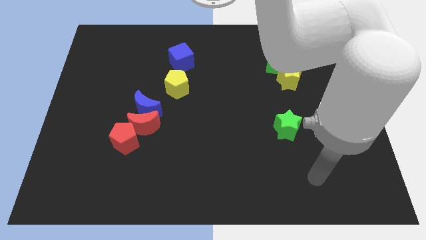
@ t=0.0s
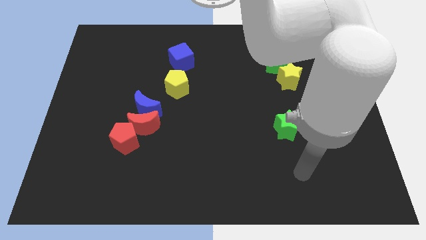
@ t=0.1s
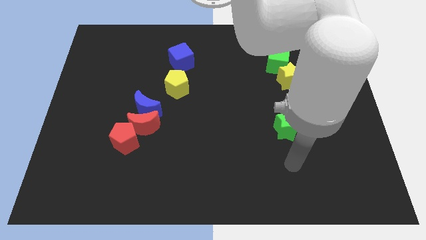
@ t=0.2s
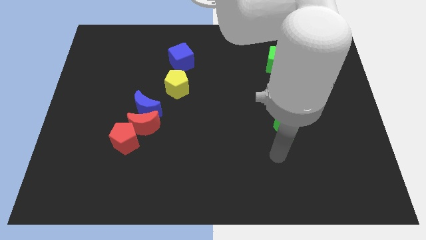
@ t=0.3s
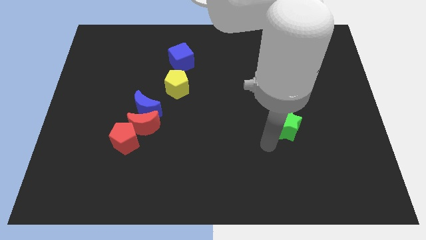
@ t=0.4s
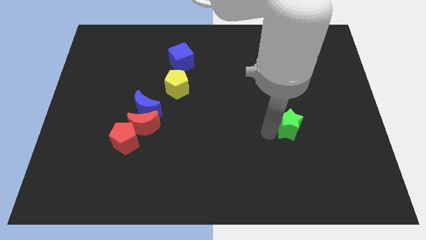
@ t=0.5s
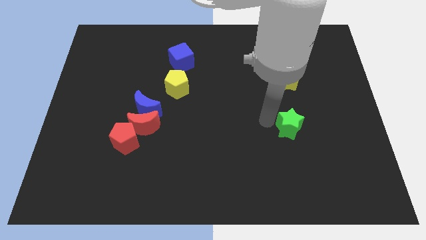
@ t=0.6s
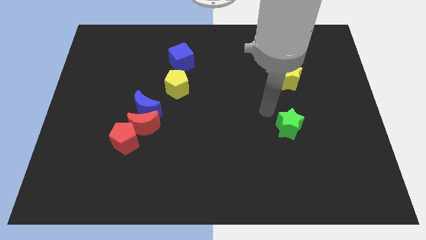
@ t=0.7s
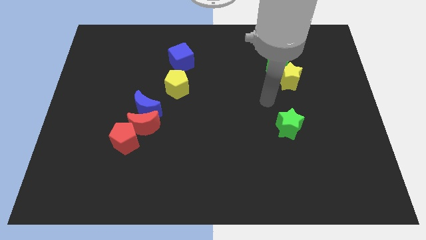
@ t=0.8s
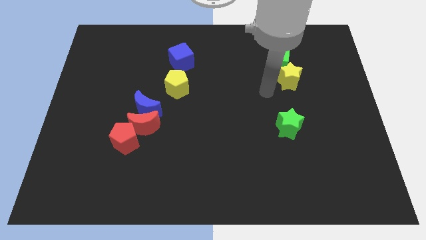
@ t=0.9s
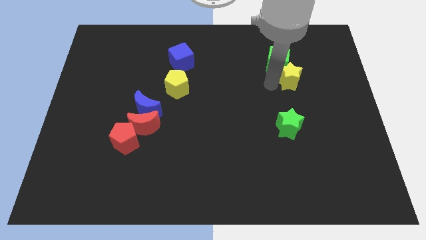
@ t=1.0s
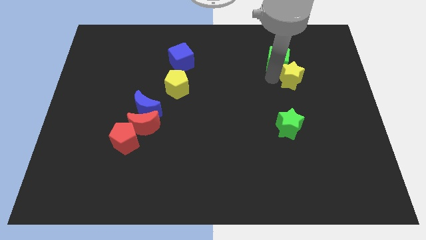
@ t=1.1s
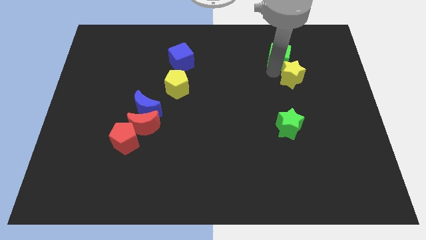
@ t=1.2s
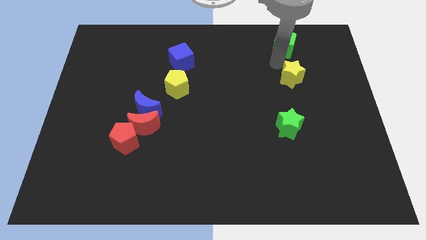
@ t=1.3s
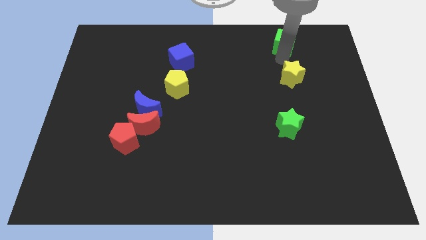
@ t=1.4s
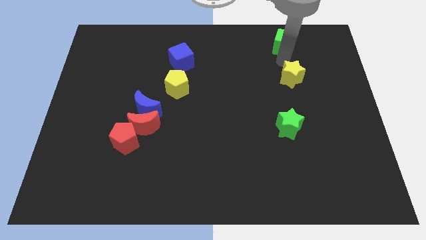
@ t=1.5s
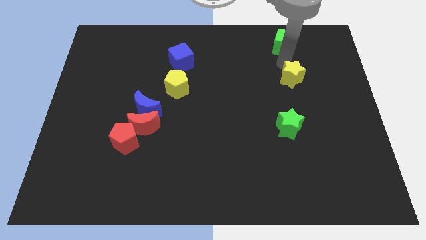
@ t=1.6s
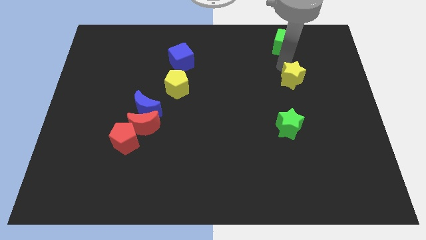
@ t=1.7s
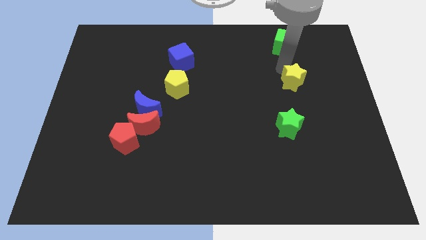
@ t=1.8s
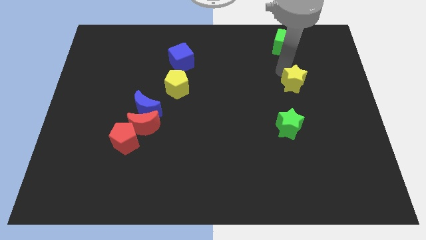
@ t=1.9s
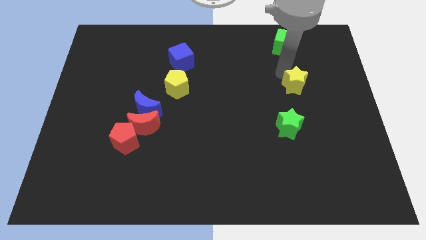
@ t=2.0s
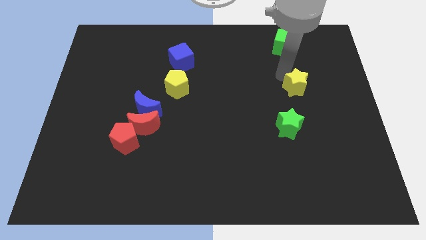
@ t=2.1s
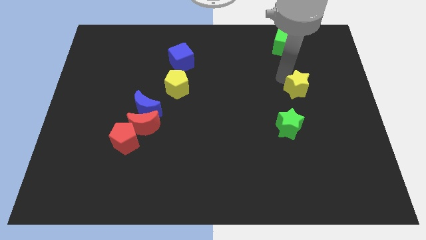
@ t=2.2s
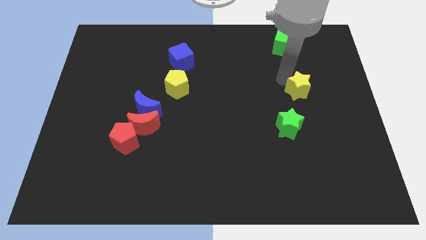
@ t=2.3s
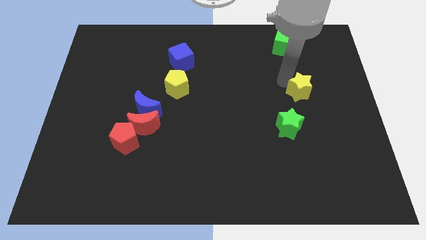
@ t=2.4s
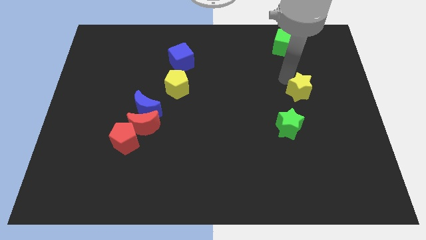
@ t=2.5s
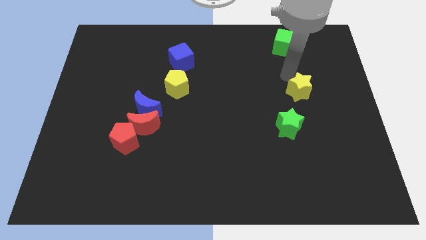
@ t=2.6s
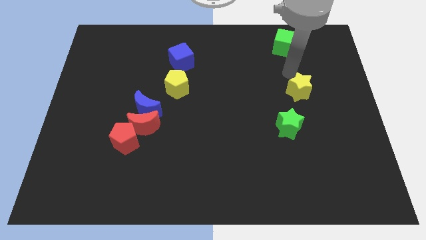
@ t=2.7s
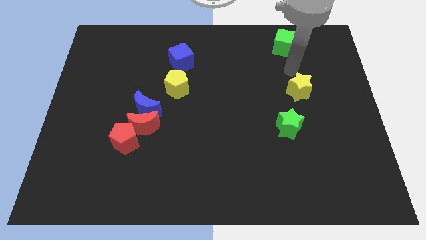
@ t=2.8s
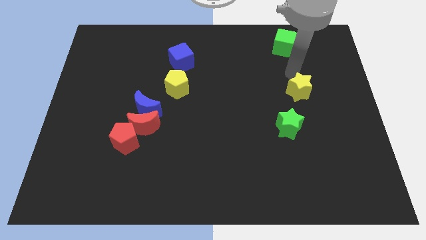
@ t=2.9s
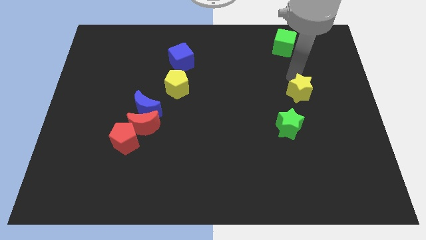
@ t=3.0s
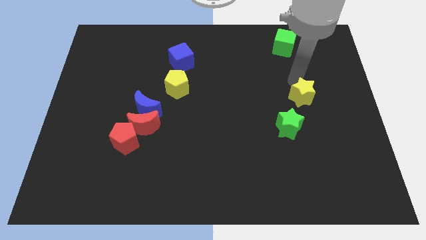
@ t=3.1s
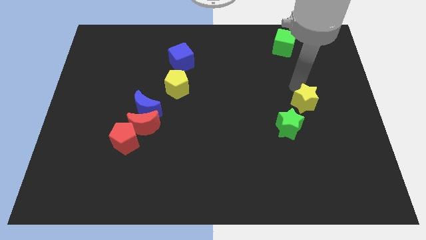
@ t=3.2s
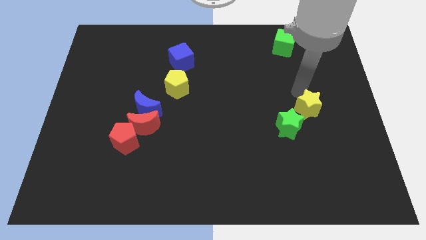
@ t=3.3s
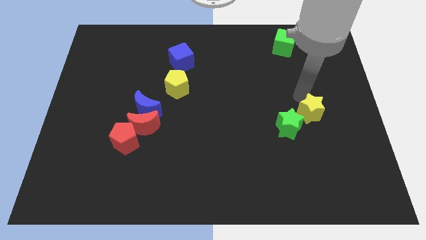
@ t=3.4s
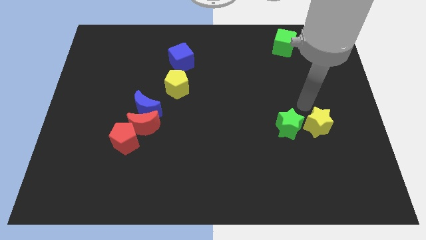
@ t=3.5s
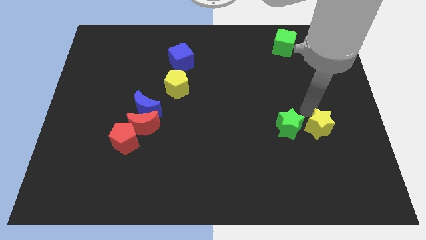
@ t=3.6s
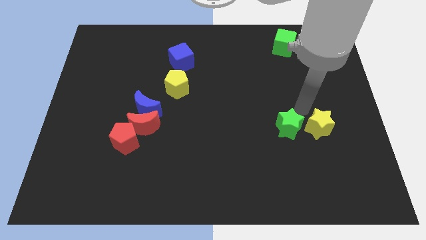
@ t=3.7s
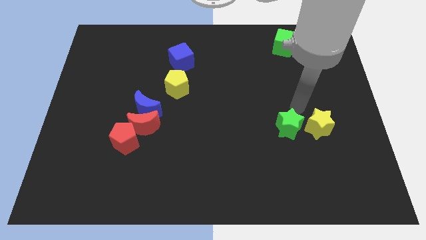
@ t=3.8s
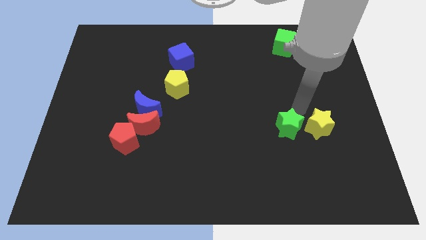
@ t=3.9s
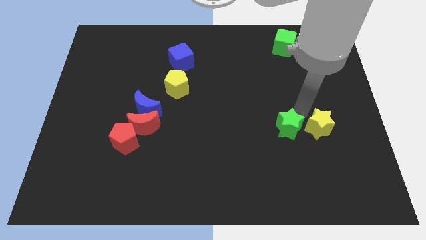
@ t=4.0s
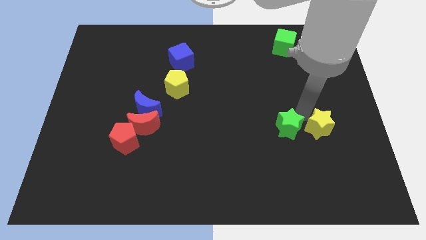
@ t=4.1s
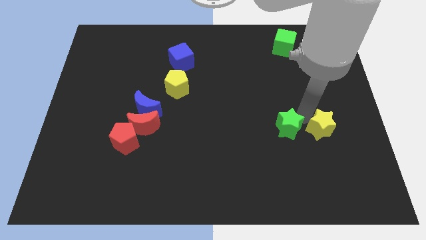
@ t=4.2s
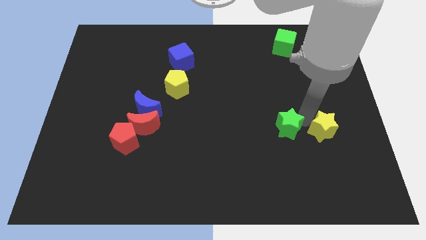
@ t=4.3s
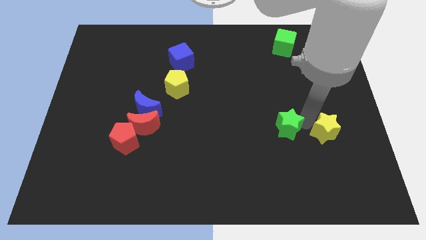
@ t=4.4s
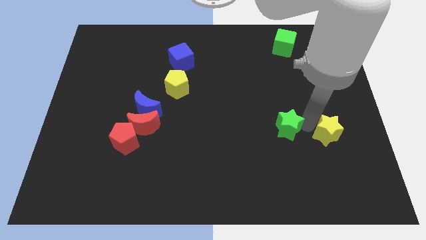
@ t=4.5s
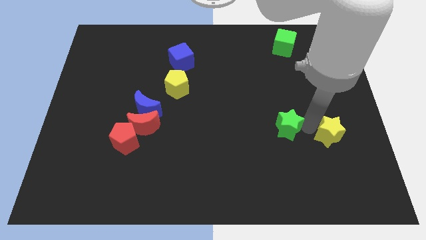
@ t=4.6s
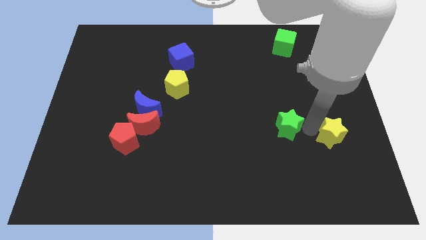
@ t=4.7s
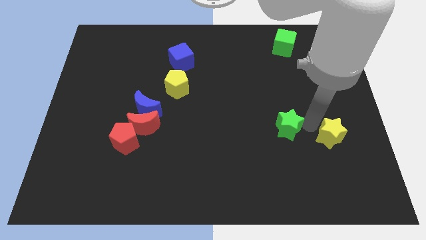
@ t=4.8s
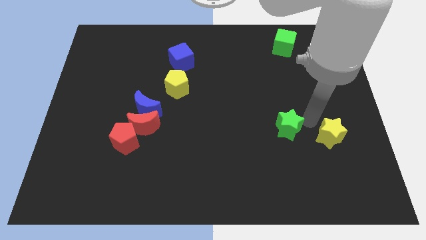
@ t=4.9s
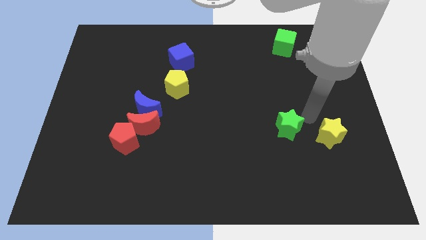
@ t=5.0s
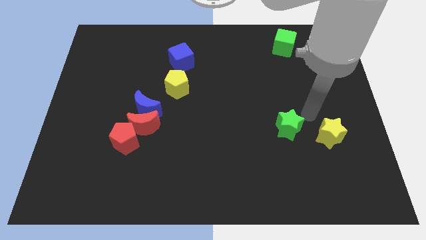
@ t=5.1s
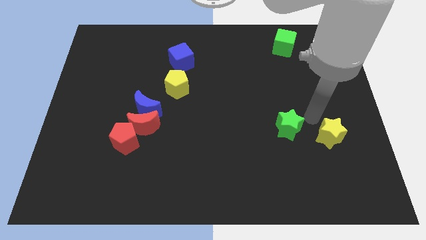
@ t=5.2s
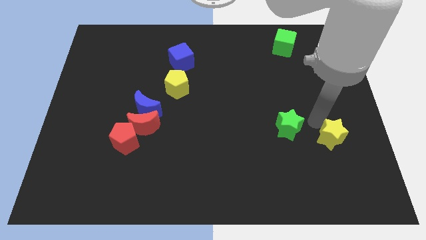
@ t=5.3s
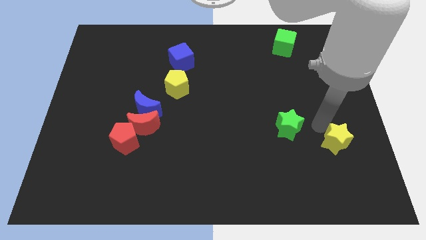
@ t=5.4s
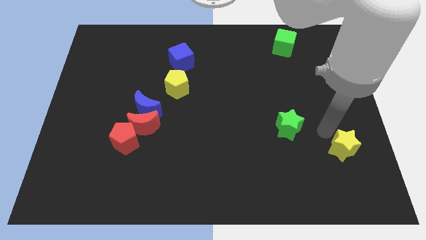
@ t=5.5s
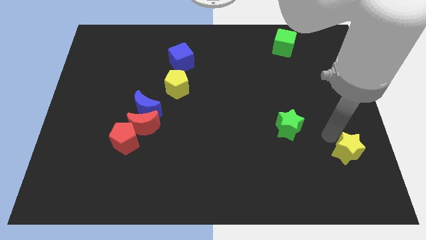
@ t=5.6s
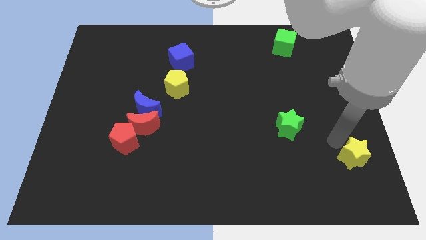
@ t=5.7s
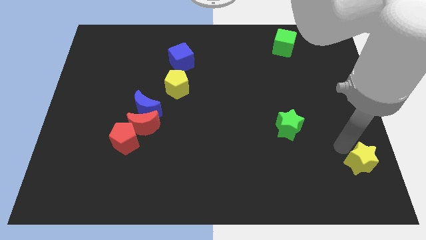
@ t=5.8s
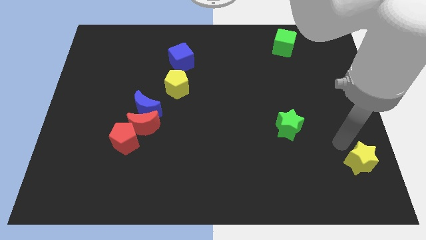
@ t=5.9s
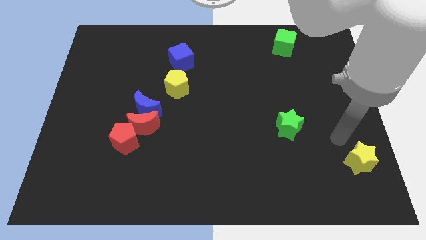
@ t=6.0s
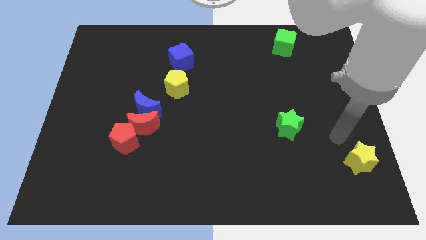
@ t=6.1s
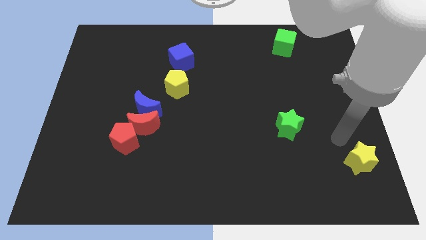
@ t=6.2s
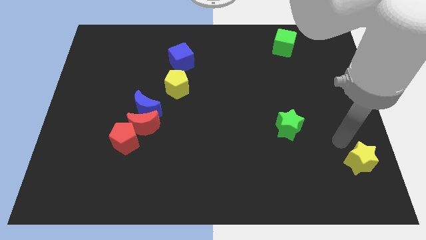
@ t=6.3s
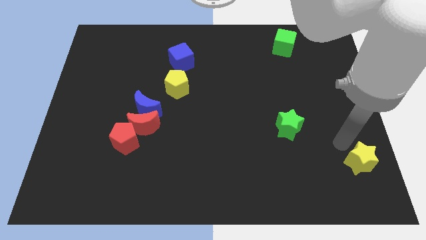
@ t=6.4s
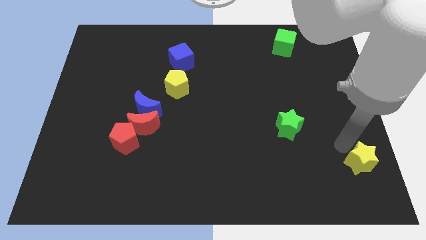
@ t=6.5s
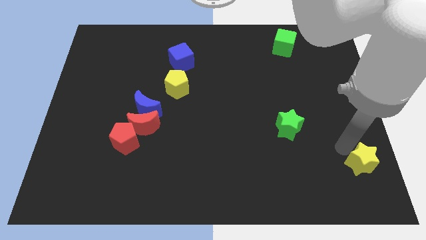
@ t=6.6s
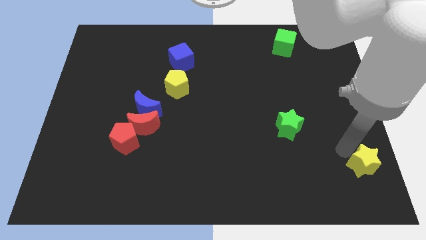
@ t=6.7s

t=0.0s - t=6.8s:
put the yellow star to the bottom right

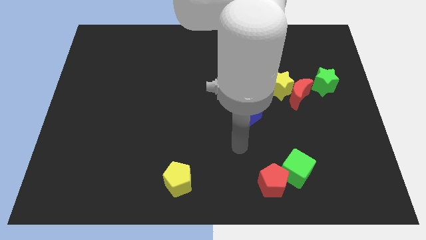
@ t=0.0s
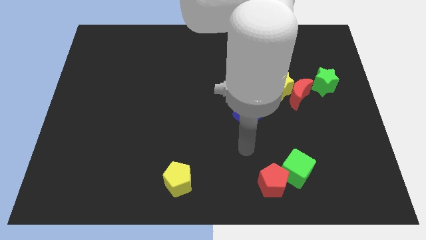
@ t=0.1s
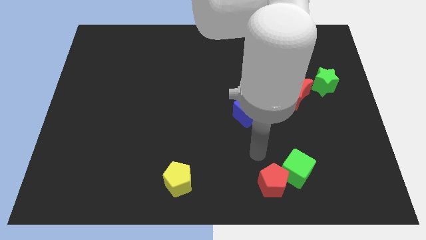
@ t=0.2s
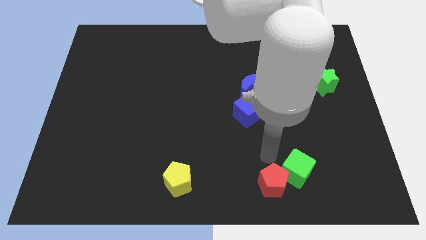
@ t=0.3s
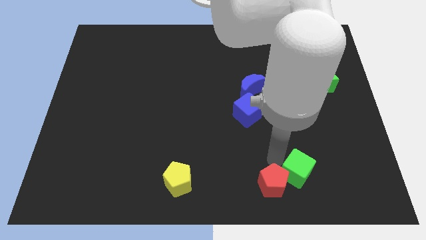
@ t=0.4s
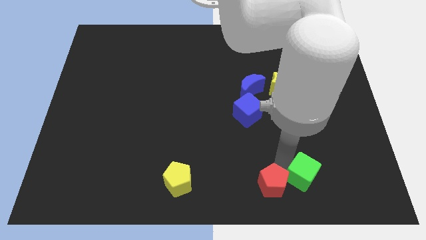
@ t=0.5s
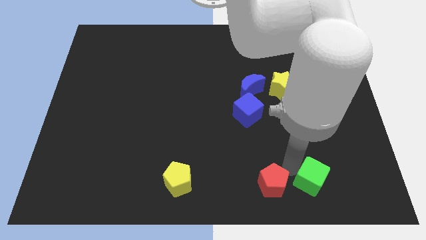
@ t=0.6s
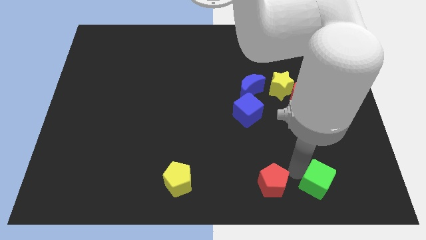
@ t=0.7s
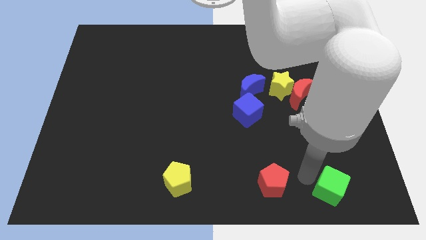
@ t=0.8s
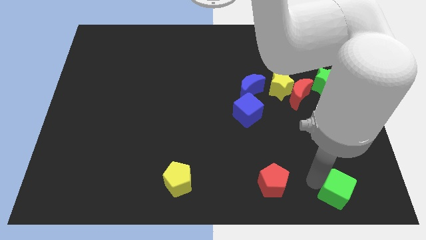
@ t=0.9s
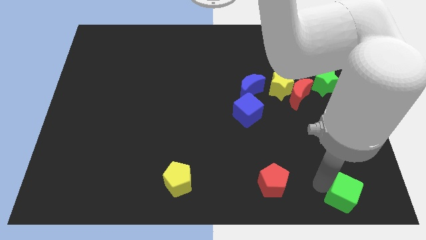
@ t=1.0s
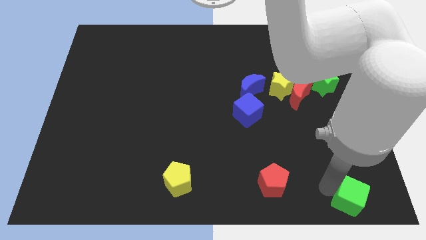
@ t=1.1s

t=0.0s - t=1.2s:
push the green cube to the lower right corner
